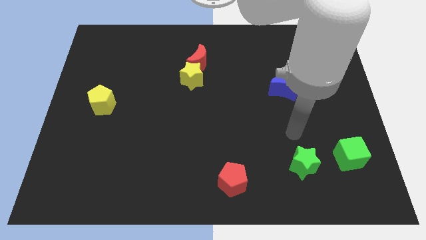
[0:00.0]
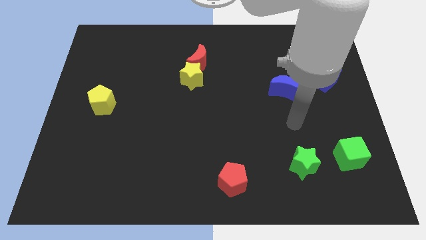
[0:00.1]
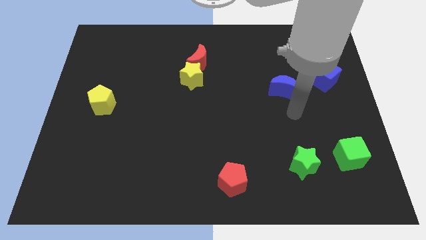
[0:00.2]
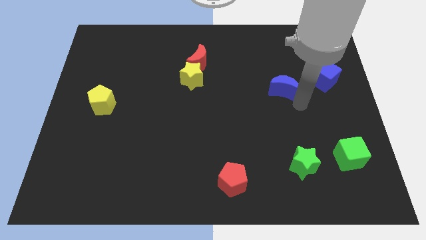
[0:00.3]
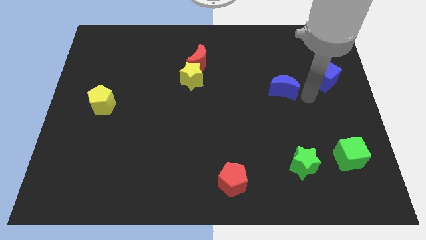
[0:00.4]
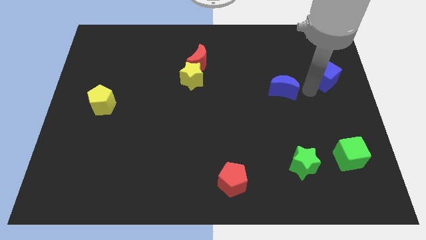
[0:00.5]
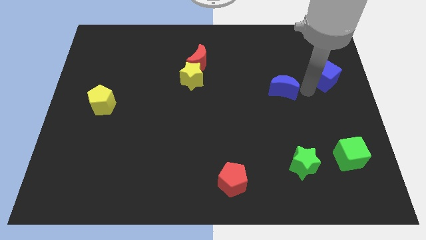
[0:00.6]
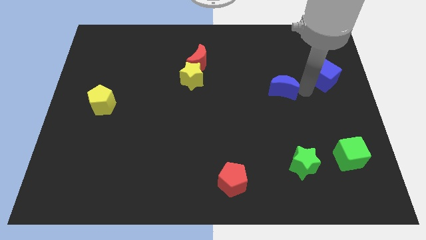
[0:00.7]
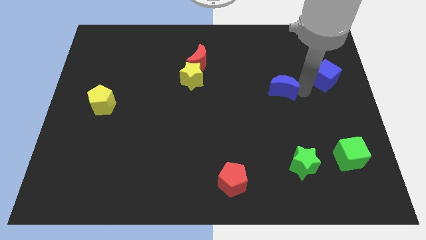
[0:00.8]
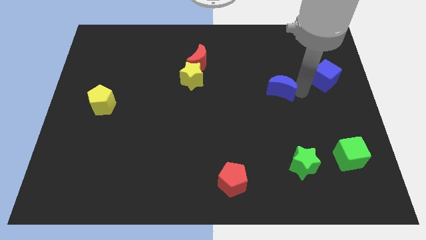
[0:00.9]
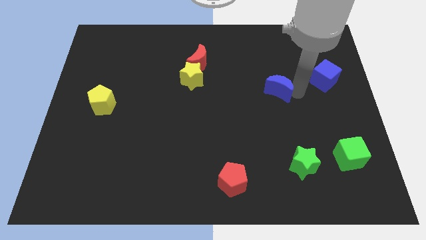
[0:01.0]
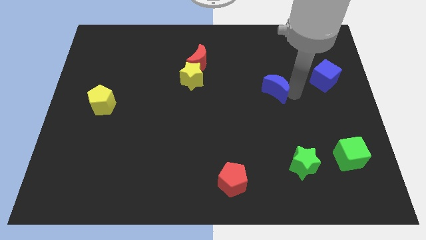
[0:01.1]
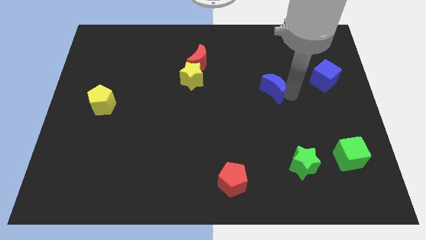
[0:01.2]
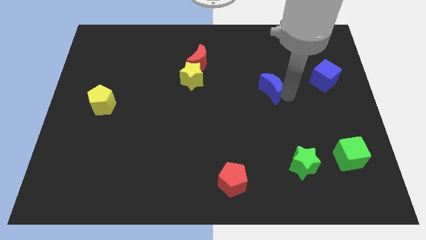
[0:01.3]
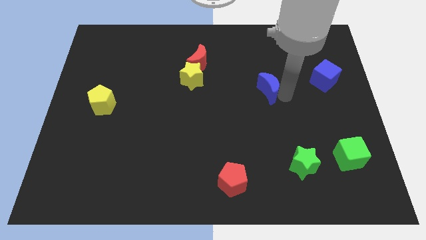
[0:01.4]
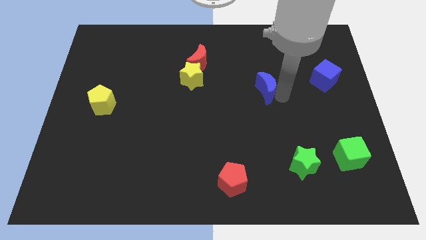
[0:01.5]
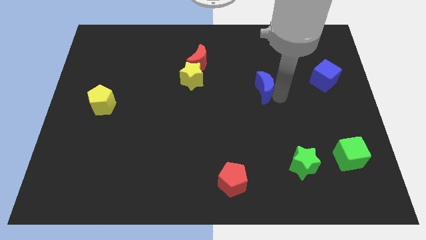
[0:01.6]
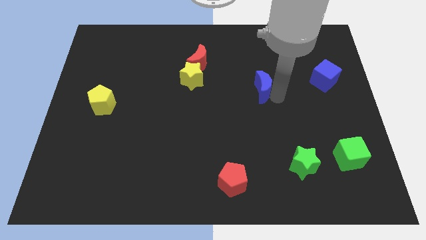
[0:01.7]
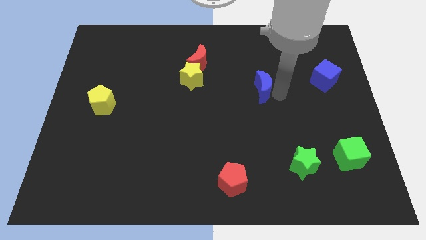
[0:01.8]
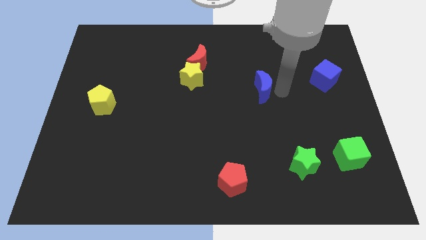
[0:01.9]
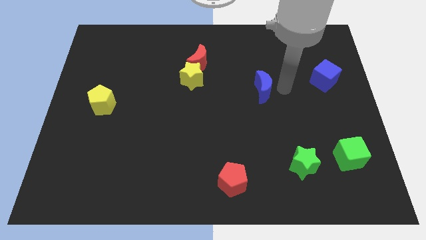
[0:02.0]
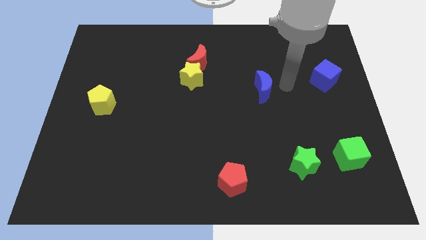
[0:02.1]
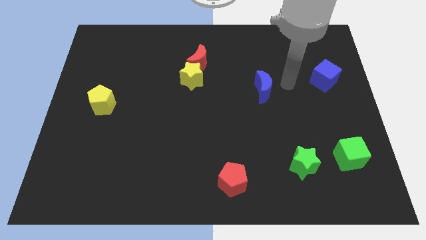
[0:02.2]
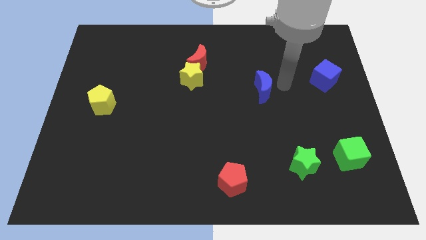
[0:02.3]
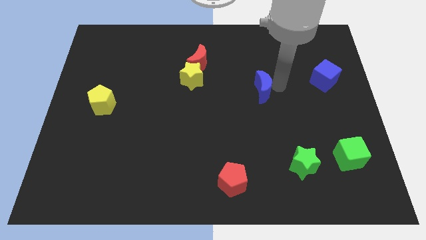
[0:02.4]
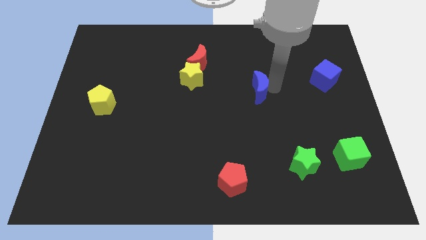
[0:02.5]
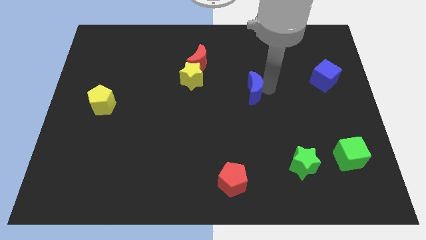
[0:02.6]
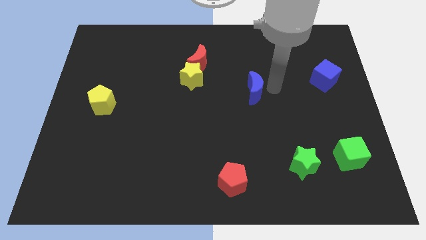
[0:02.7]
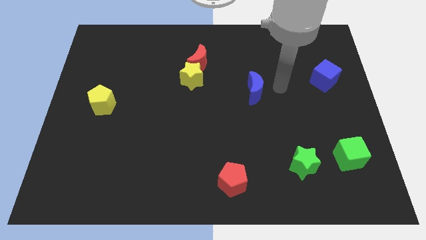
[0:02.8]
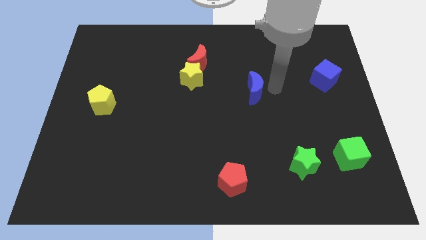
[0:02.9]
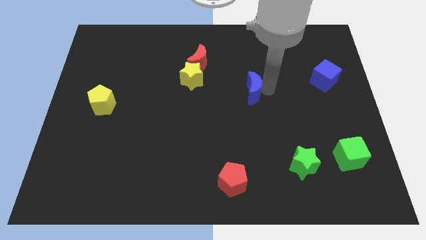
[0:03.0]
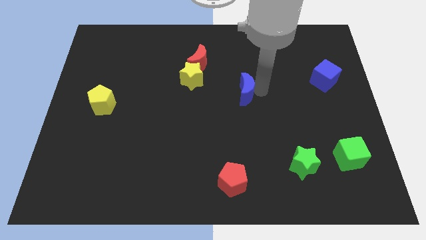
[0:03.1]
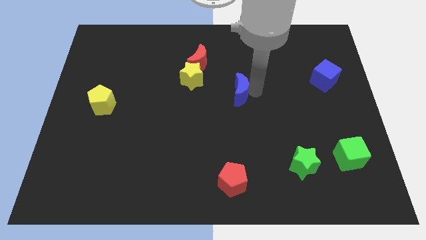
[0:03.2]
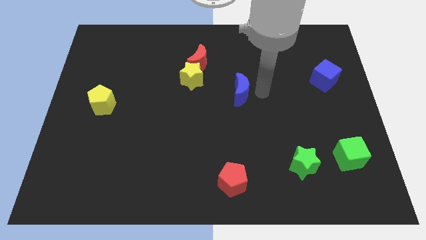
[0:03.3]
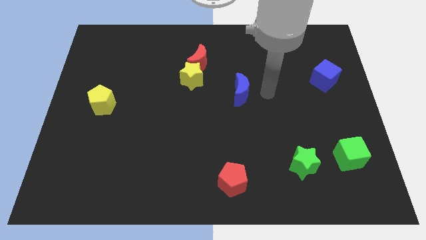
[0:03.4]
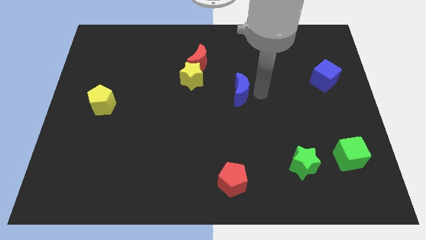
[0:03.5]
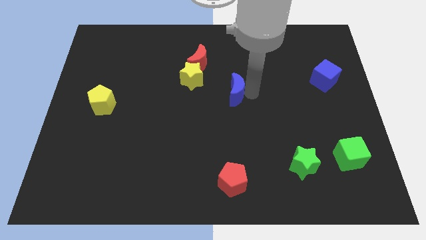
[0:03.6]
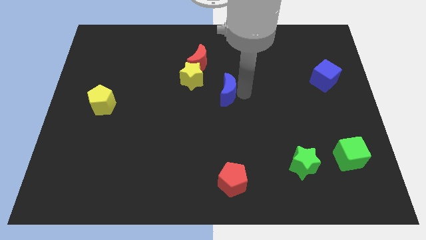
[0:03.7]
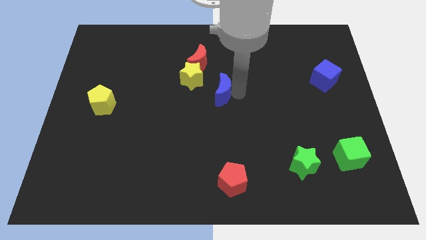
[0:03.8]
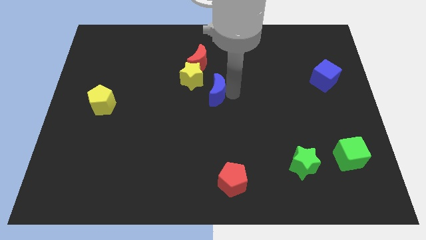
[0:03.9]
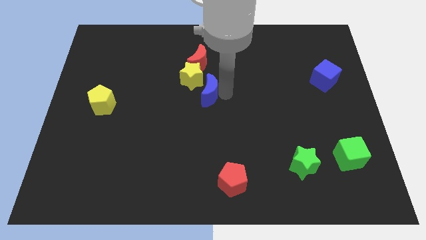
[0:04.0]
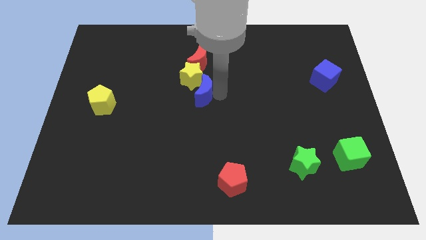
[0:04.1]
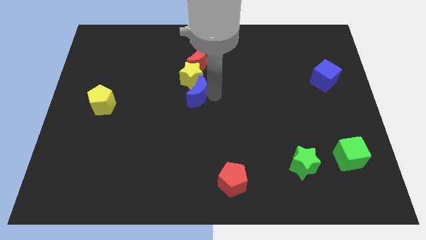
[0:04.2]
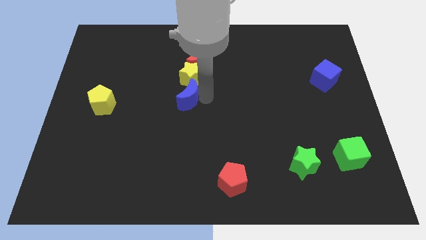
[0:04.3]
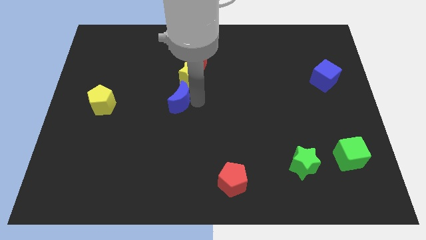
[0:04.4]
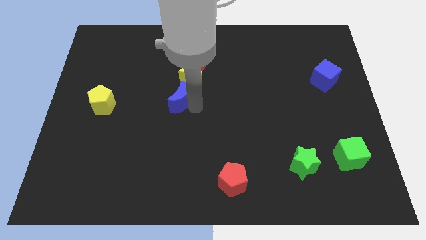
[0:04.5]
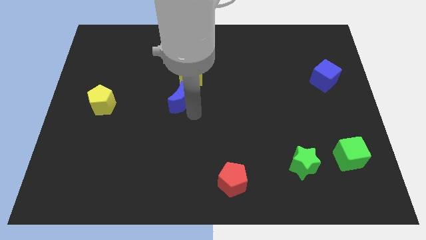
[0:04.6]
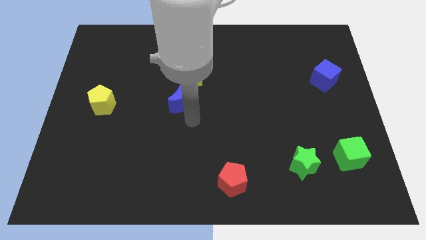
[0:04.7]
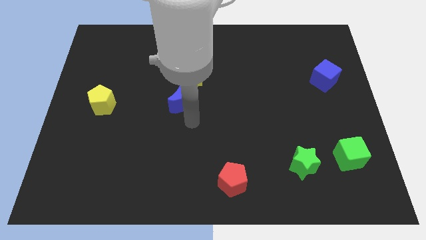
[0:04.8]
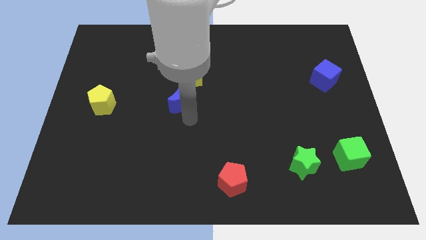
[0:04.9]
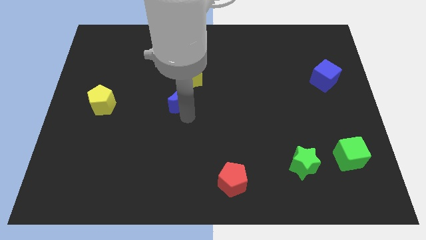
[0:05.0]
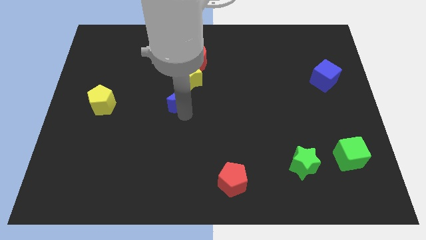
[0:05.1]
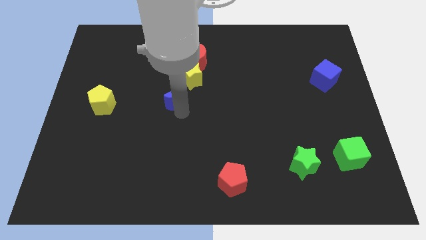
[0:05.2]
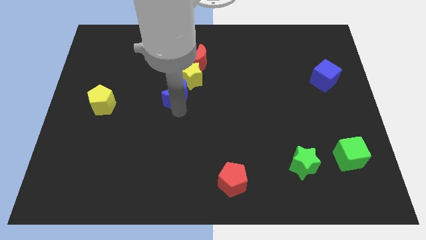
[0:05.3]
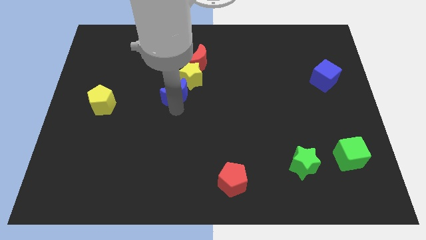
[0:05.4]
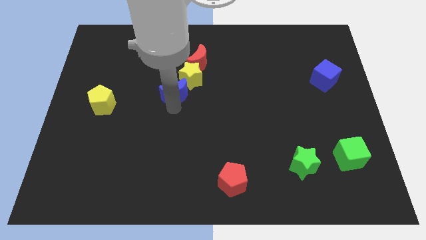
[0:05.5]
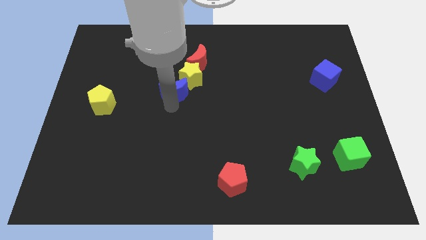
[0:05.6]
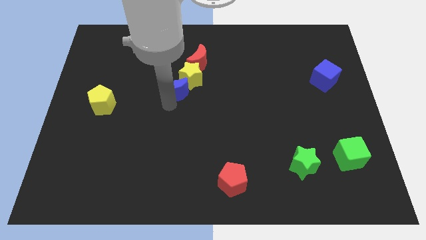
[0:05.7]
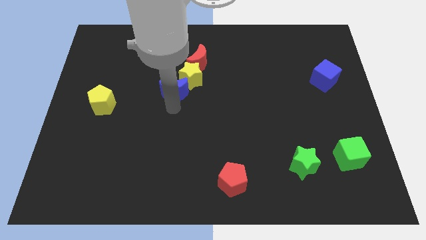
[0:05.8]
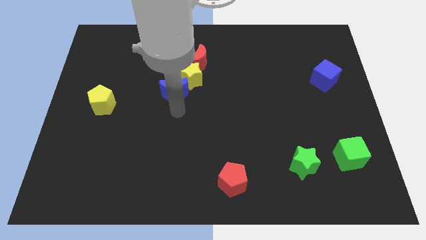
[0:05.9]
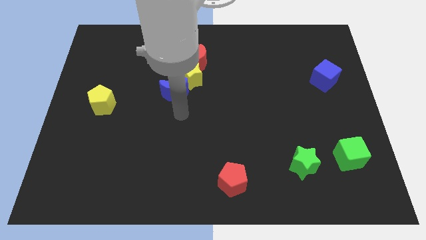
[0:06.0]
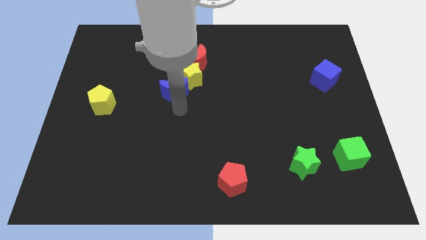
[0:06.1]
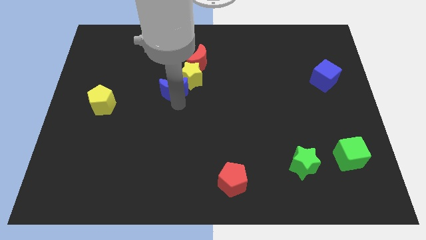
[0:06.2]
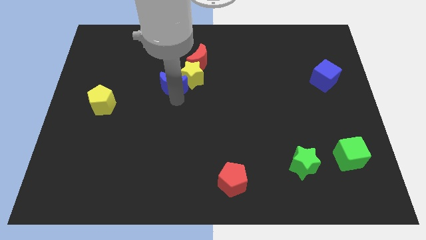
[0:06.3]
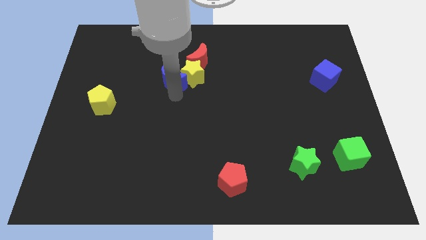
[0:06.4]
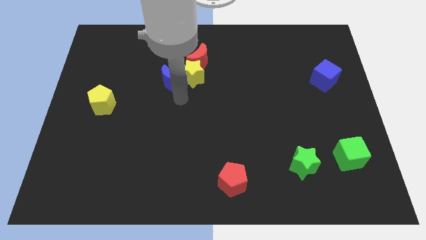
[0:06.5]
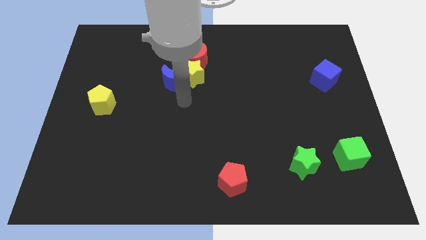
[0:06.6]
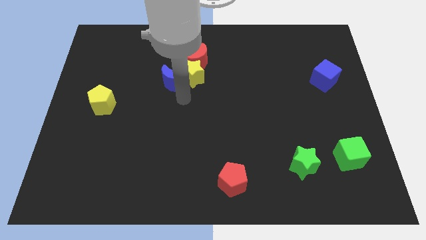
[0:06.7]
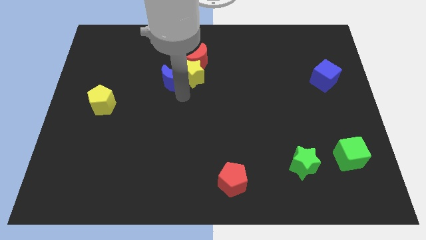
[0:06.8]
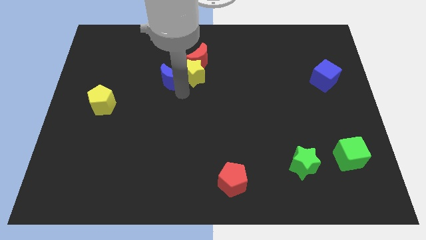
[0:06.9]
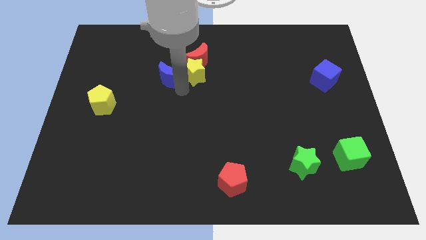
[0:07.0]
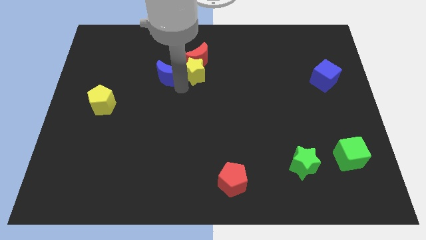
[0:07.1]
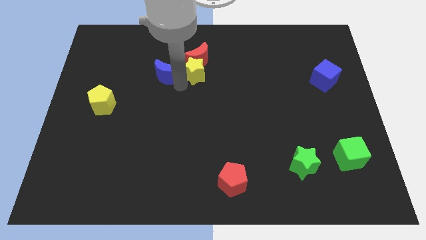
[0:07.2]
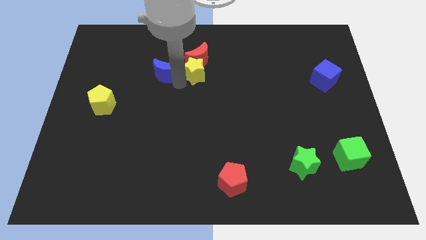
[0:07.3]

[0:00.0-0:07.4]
push the blue moon to the left of the red moon
